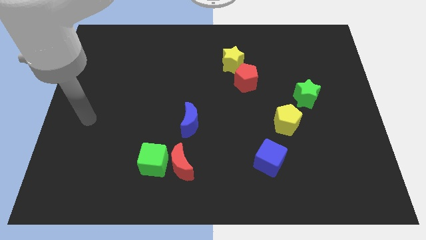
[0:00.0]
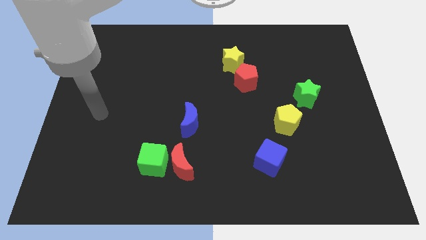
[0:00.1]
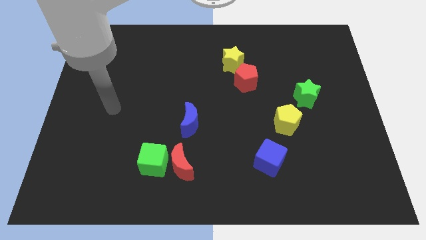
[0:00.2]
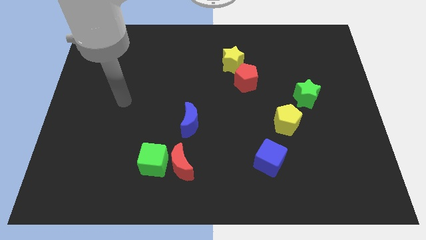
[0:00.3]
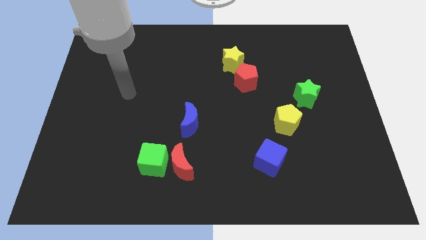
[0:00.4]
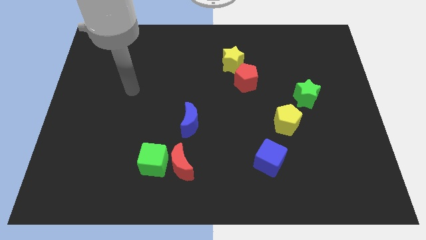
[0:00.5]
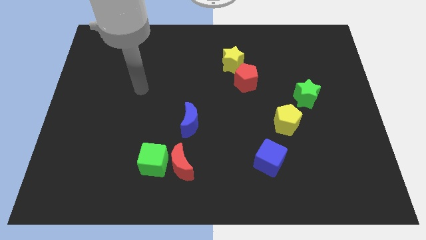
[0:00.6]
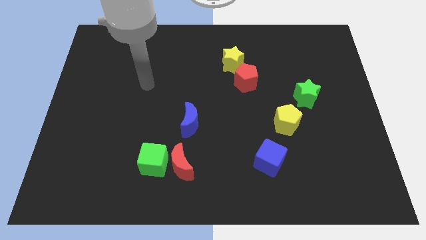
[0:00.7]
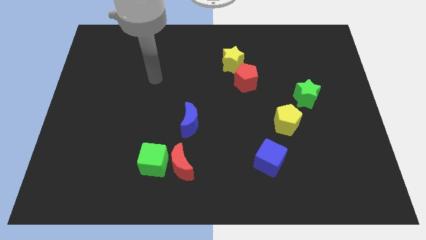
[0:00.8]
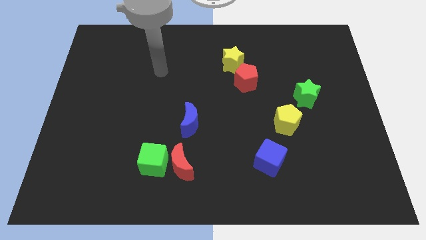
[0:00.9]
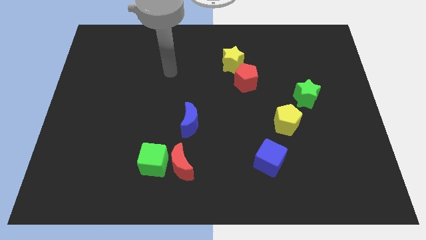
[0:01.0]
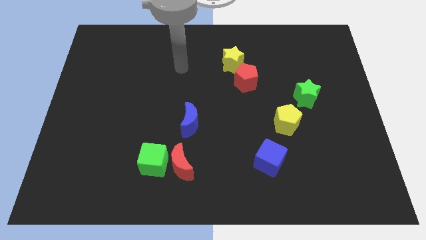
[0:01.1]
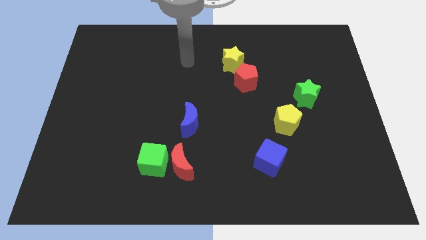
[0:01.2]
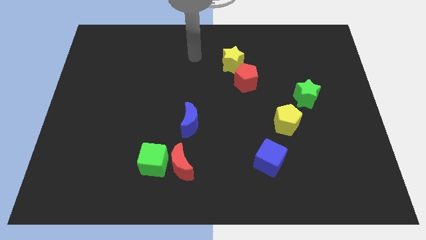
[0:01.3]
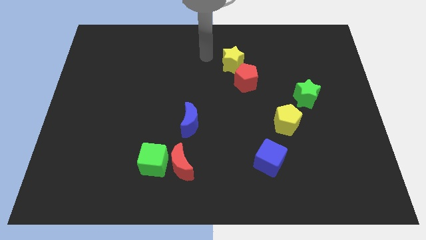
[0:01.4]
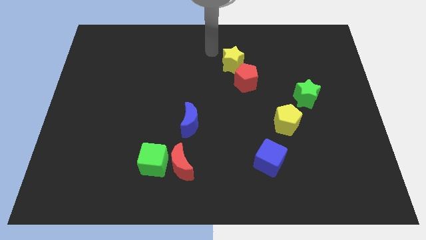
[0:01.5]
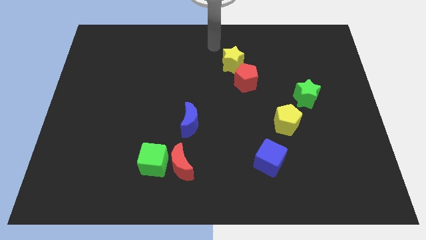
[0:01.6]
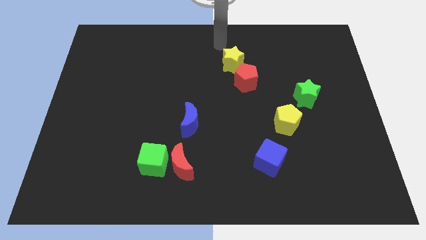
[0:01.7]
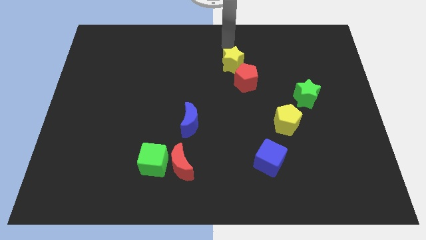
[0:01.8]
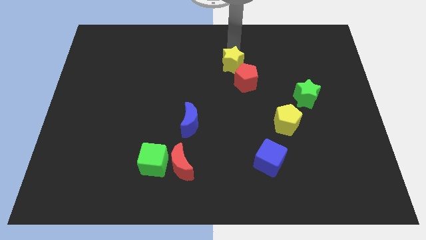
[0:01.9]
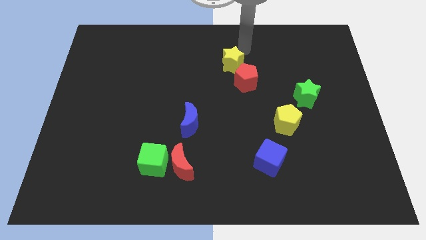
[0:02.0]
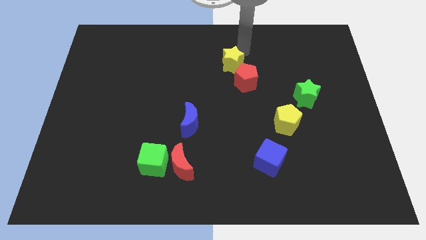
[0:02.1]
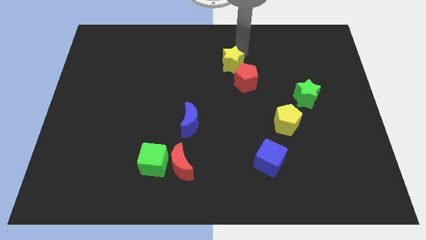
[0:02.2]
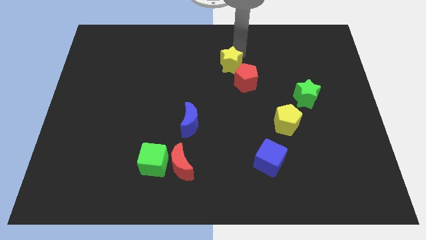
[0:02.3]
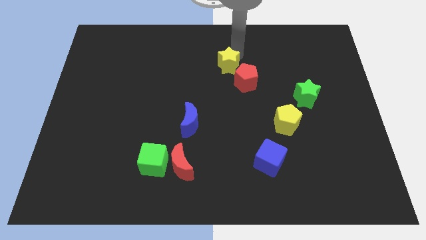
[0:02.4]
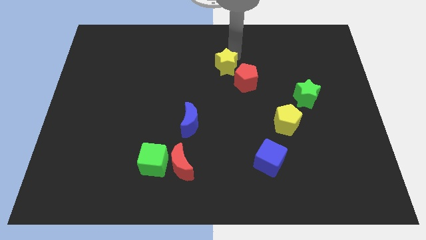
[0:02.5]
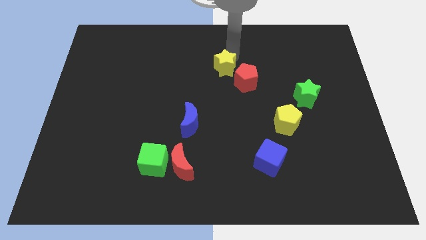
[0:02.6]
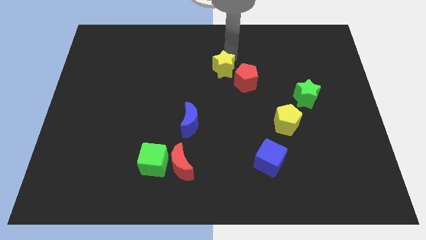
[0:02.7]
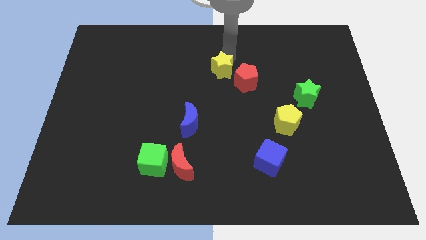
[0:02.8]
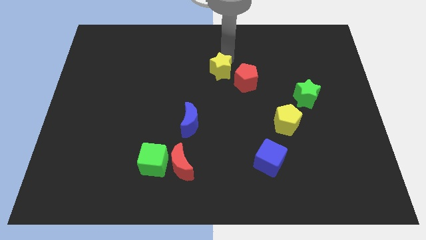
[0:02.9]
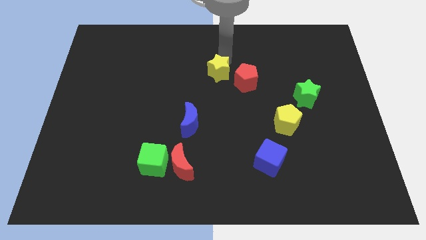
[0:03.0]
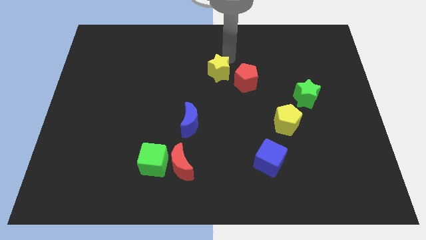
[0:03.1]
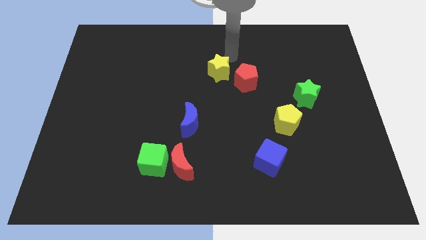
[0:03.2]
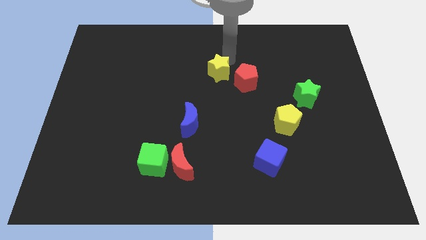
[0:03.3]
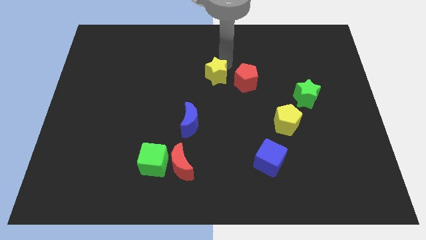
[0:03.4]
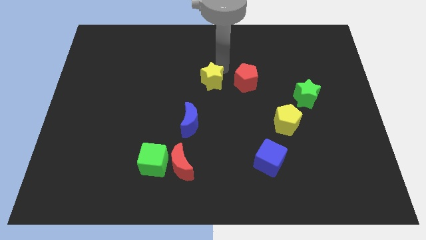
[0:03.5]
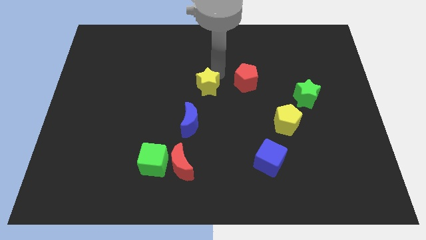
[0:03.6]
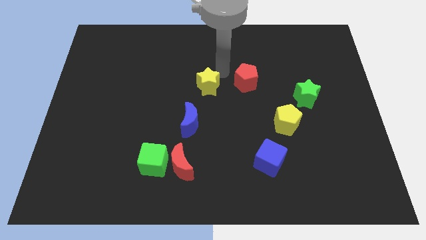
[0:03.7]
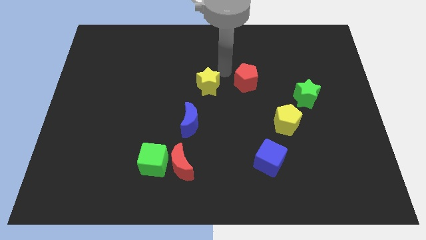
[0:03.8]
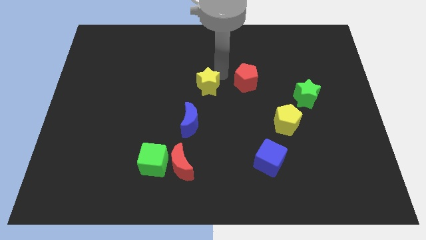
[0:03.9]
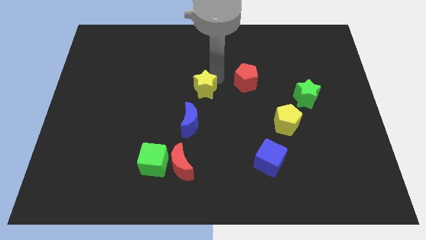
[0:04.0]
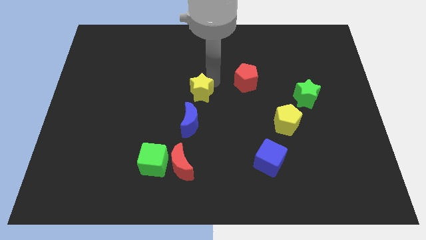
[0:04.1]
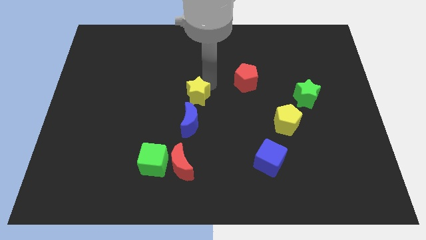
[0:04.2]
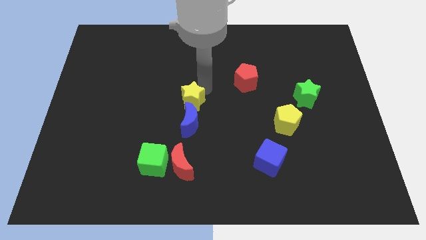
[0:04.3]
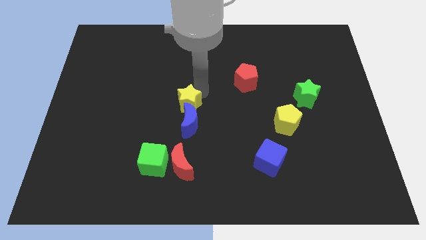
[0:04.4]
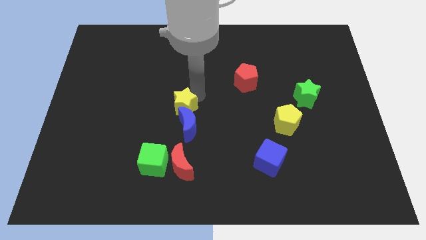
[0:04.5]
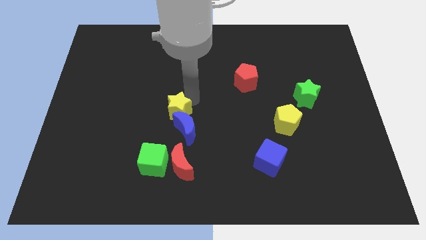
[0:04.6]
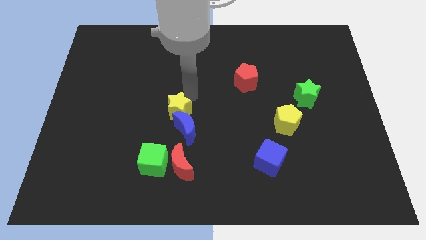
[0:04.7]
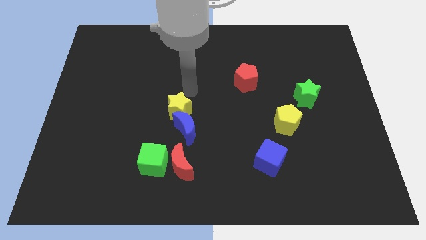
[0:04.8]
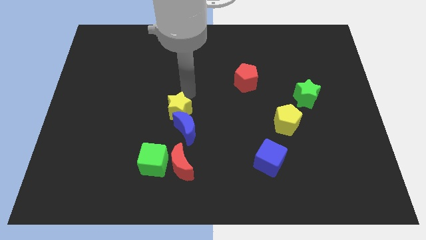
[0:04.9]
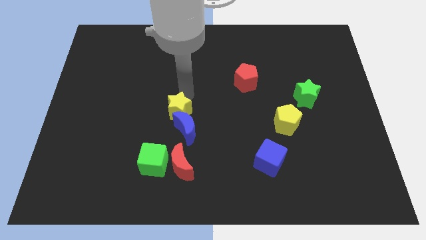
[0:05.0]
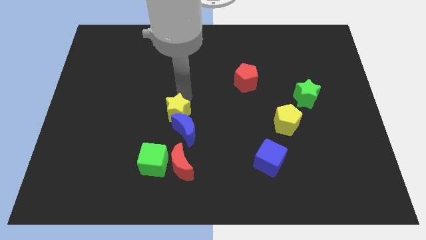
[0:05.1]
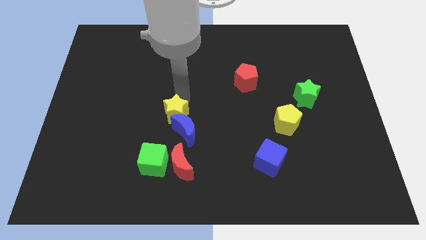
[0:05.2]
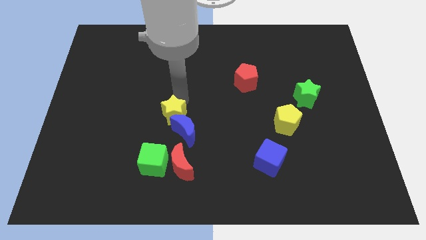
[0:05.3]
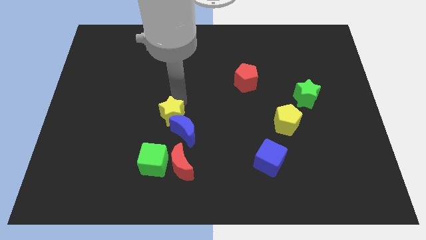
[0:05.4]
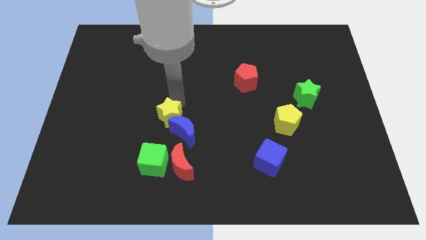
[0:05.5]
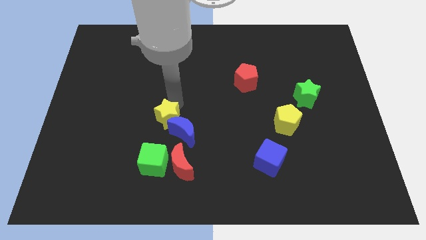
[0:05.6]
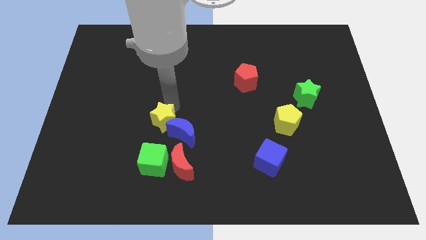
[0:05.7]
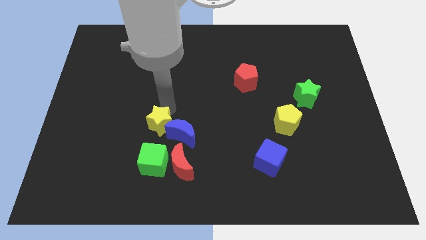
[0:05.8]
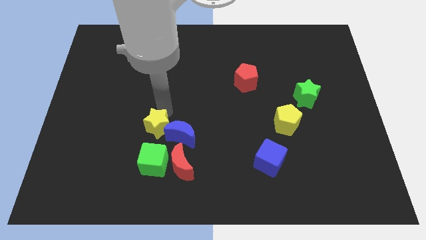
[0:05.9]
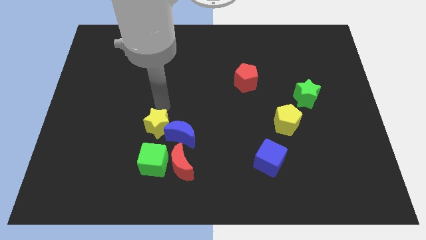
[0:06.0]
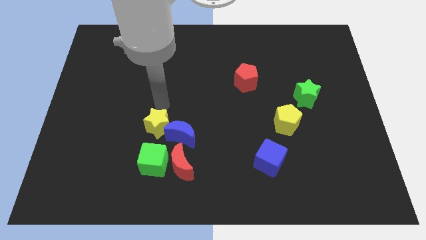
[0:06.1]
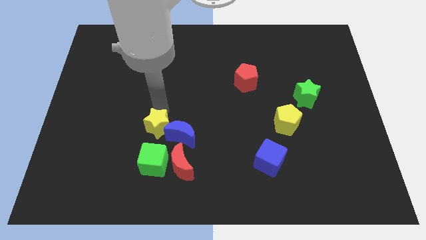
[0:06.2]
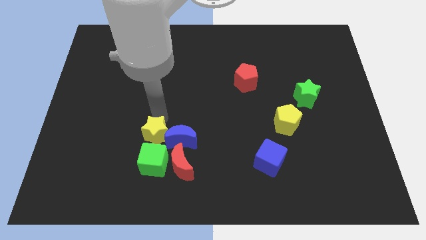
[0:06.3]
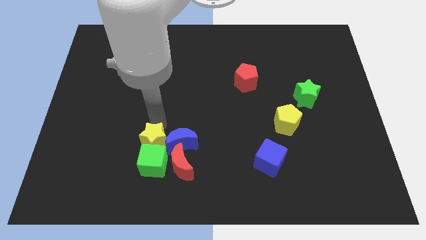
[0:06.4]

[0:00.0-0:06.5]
put the yellow star close to the green cube
